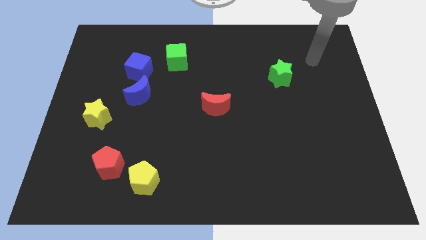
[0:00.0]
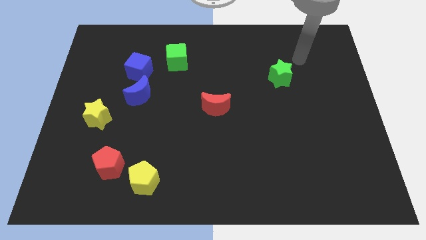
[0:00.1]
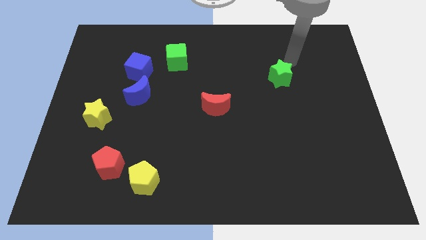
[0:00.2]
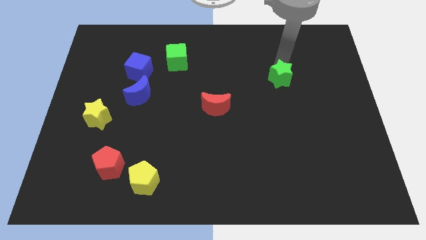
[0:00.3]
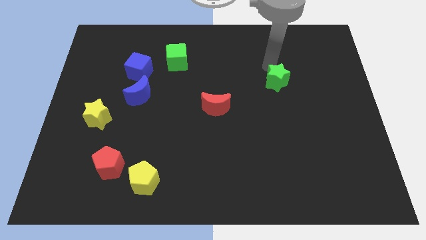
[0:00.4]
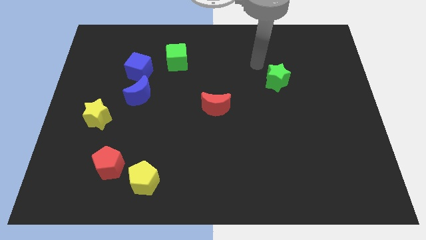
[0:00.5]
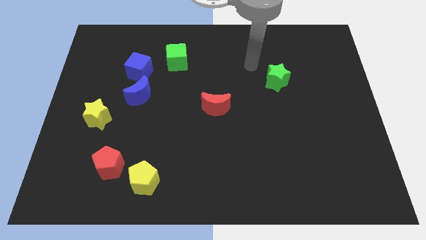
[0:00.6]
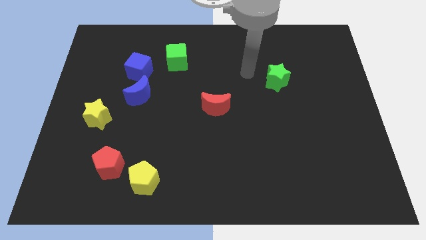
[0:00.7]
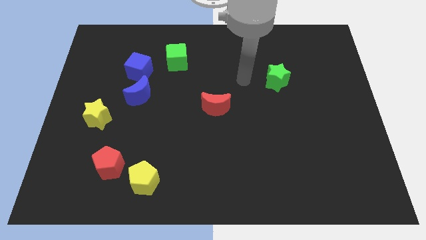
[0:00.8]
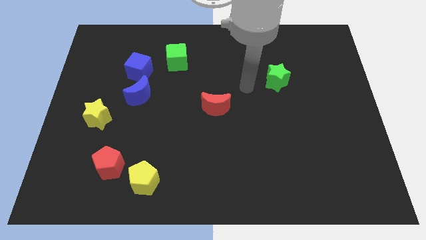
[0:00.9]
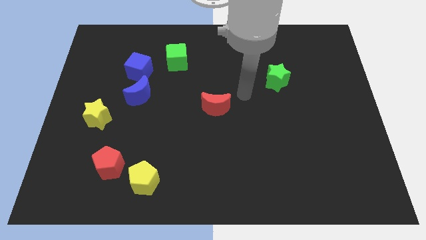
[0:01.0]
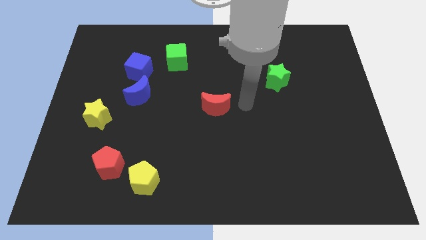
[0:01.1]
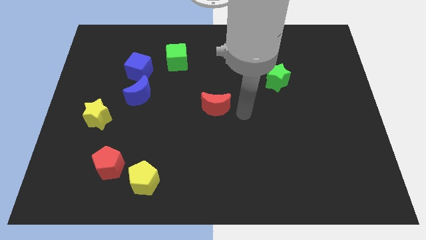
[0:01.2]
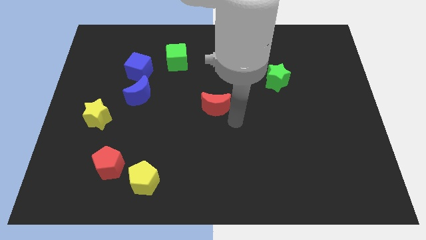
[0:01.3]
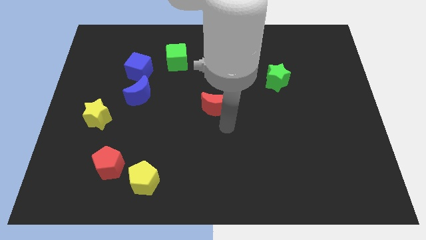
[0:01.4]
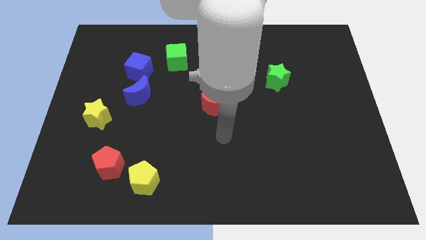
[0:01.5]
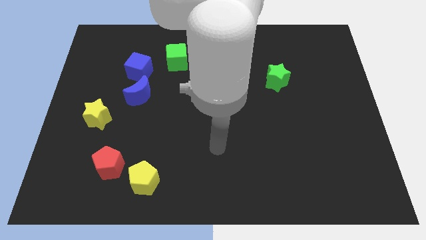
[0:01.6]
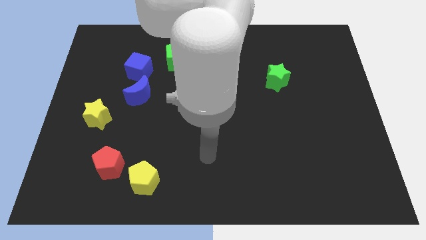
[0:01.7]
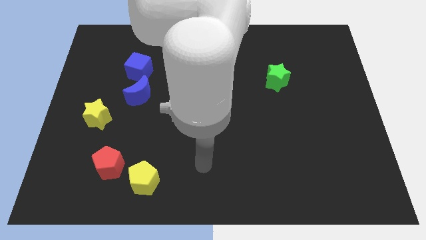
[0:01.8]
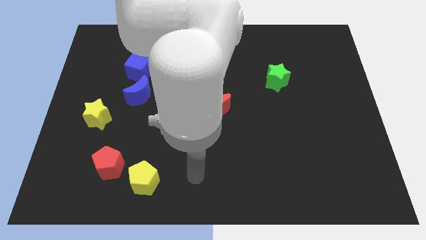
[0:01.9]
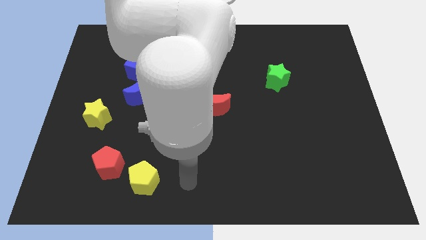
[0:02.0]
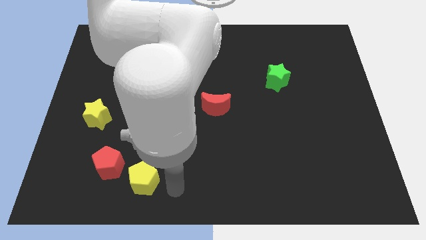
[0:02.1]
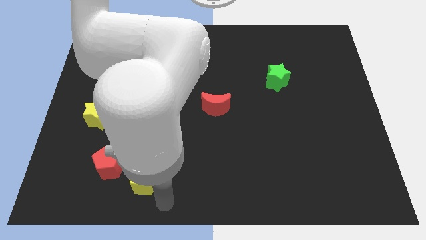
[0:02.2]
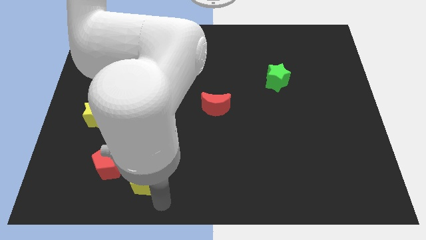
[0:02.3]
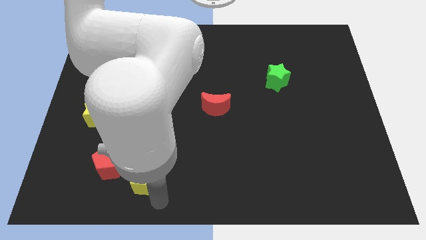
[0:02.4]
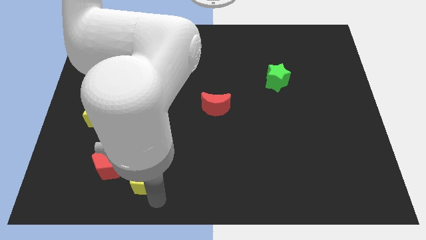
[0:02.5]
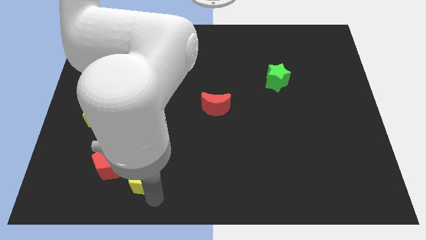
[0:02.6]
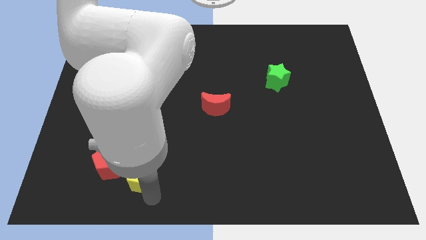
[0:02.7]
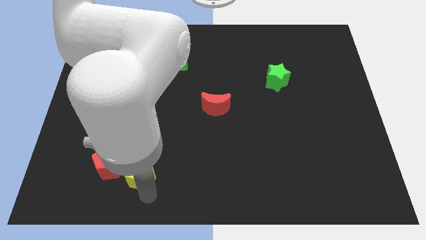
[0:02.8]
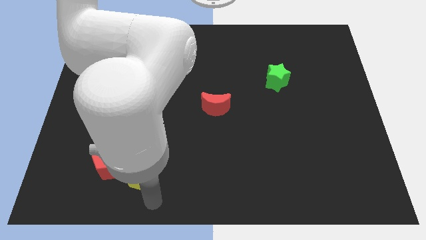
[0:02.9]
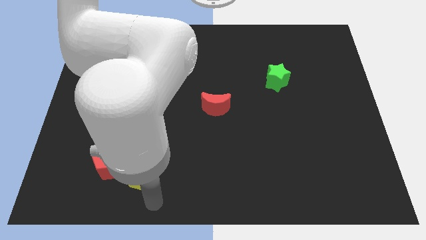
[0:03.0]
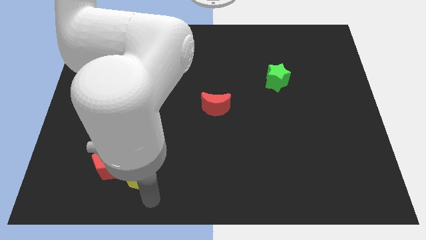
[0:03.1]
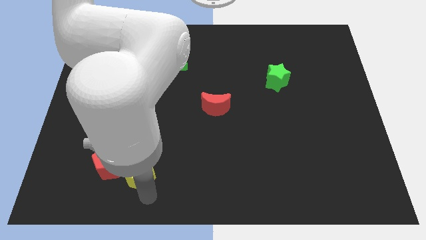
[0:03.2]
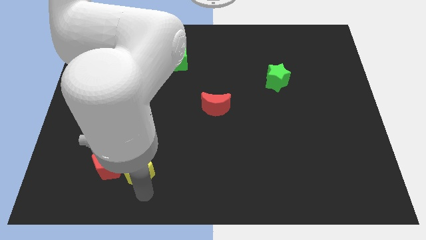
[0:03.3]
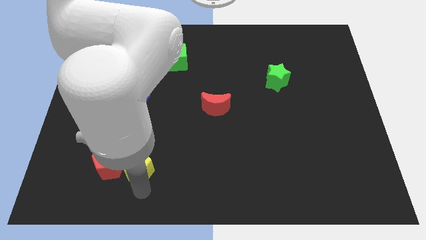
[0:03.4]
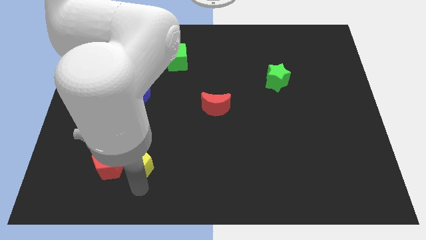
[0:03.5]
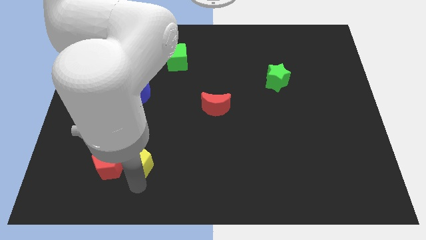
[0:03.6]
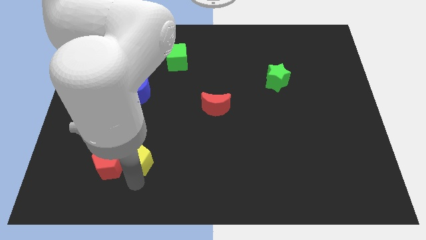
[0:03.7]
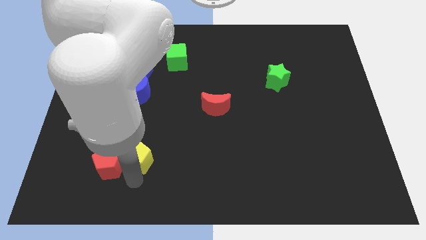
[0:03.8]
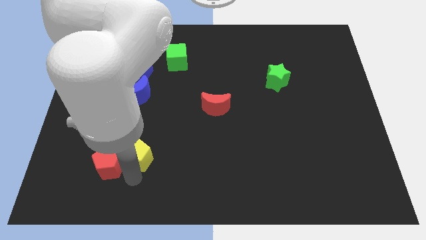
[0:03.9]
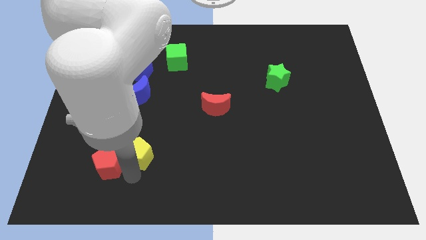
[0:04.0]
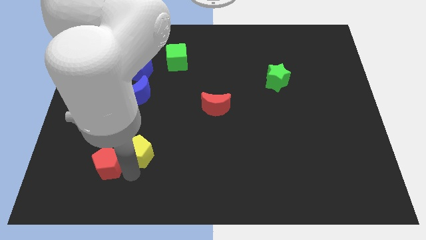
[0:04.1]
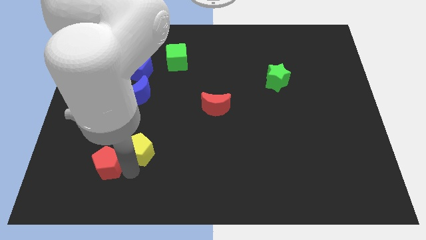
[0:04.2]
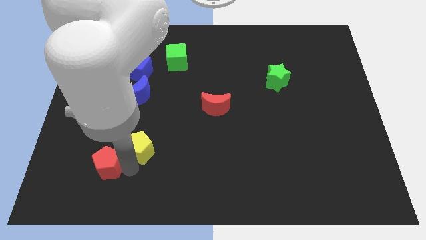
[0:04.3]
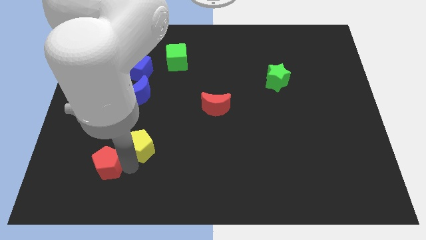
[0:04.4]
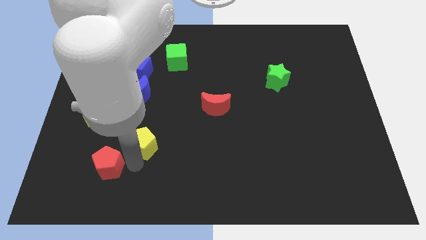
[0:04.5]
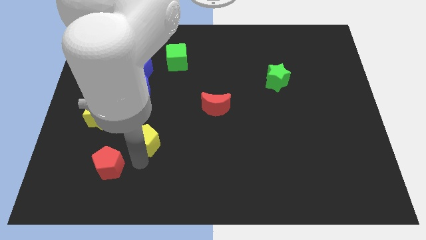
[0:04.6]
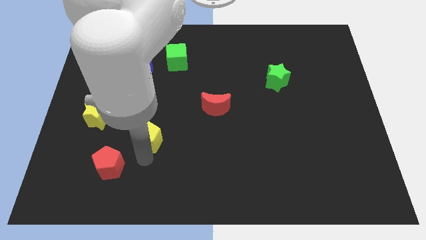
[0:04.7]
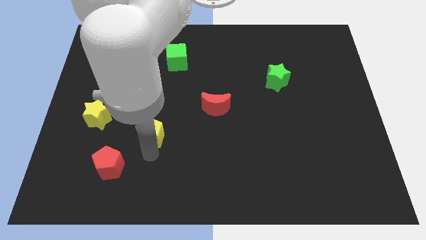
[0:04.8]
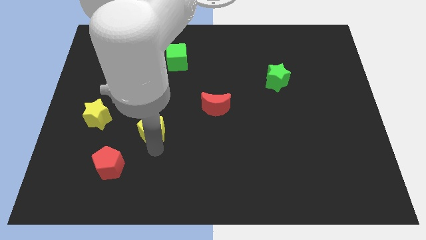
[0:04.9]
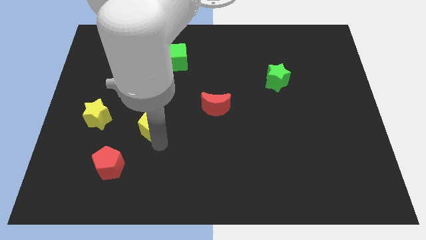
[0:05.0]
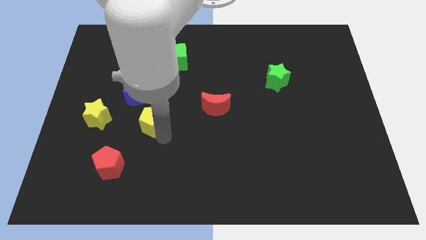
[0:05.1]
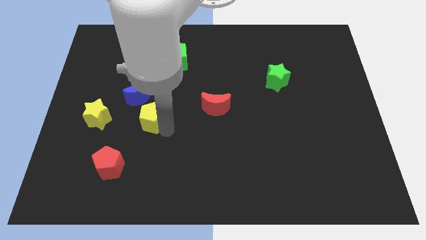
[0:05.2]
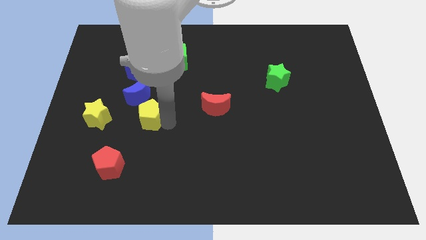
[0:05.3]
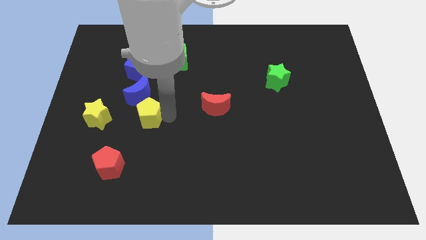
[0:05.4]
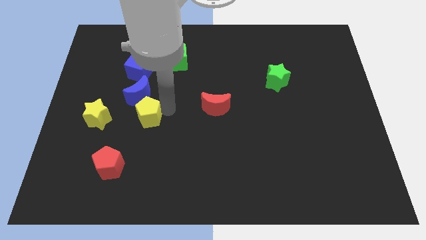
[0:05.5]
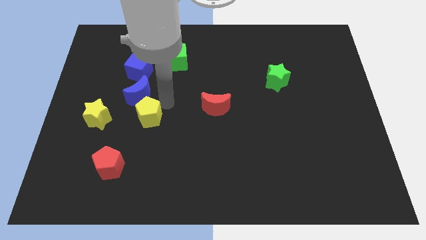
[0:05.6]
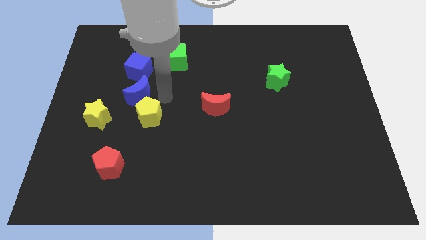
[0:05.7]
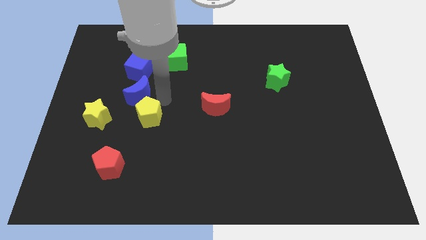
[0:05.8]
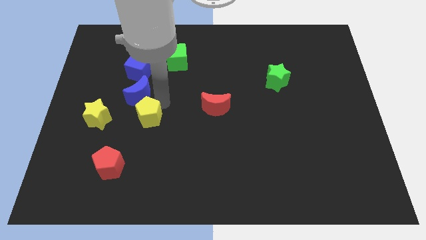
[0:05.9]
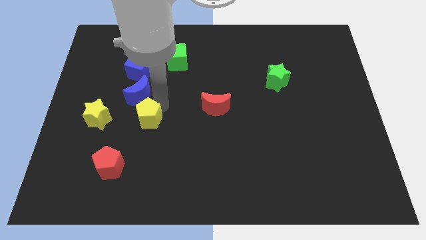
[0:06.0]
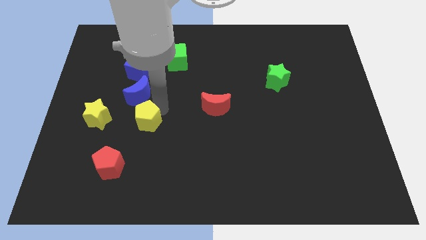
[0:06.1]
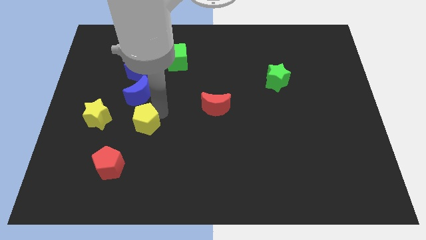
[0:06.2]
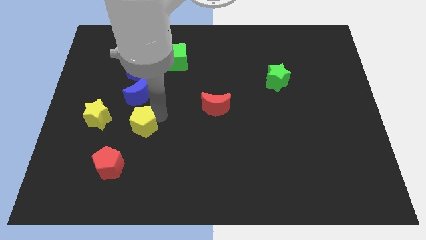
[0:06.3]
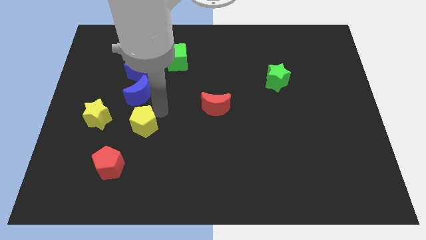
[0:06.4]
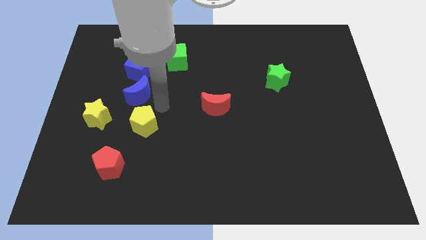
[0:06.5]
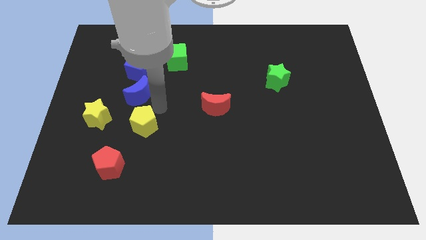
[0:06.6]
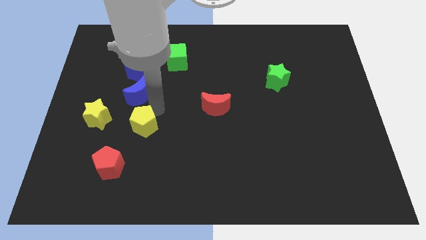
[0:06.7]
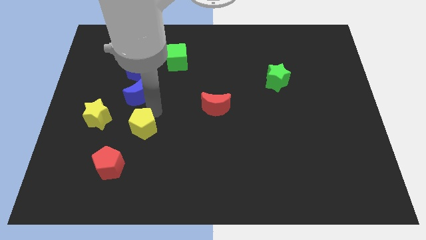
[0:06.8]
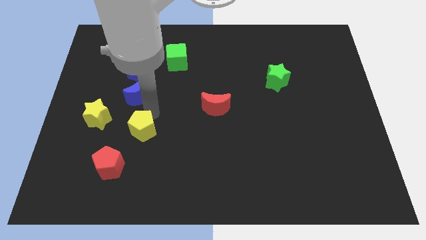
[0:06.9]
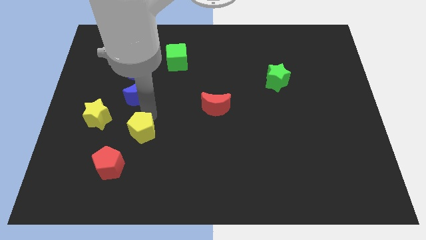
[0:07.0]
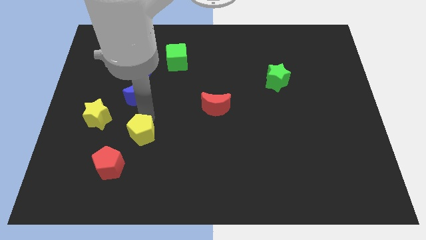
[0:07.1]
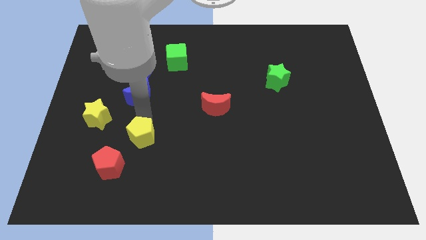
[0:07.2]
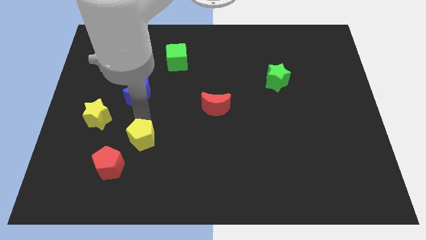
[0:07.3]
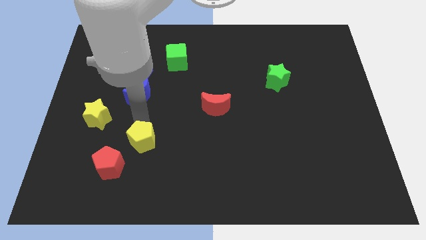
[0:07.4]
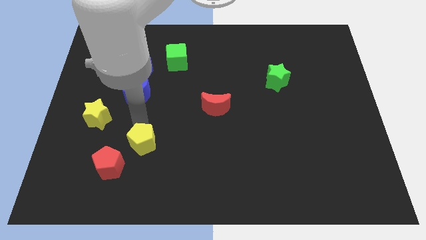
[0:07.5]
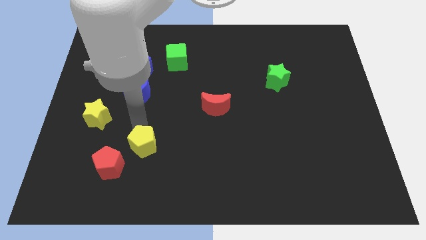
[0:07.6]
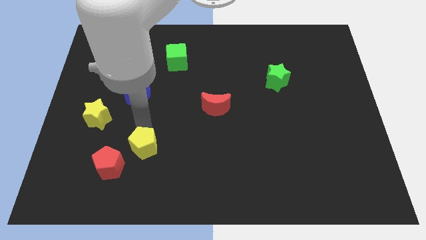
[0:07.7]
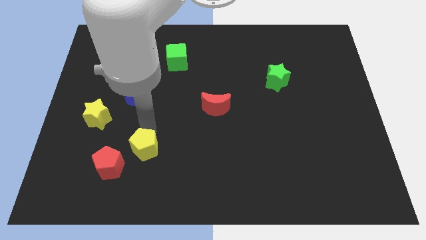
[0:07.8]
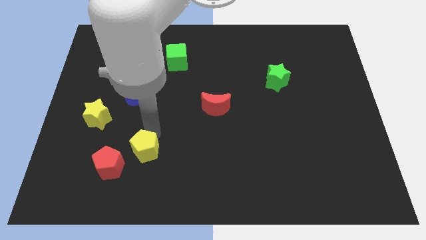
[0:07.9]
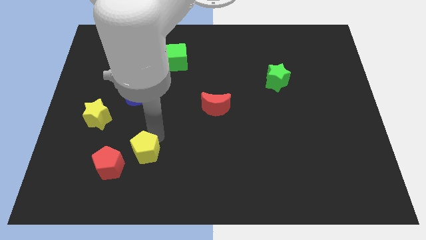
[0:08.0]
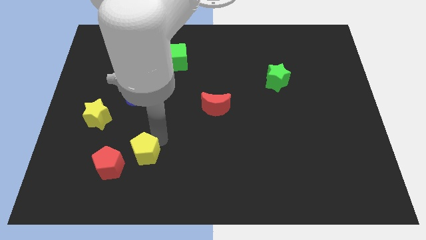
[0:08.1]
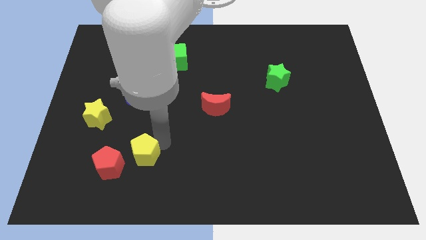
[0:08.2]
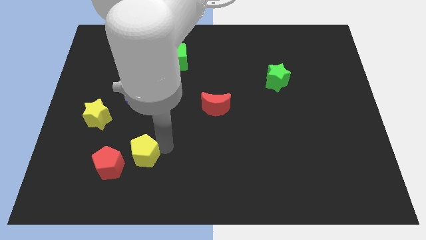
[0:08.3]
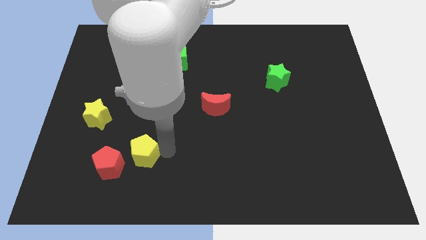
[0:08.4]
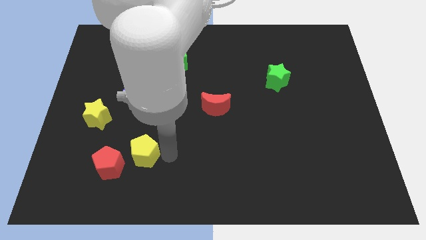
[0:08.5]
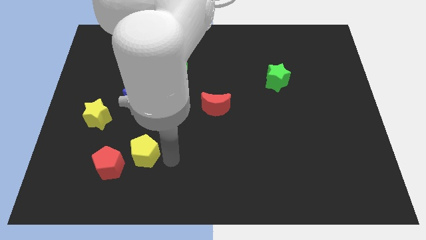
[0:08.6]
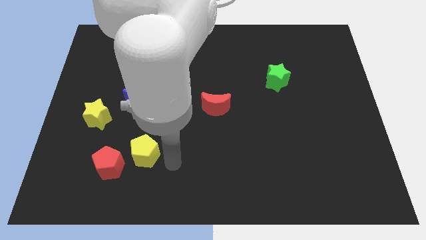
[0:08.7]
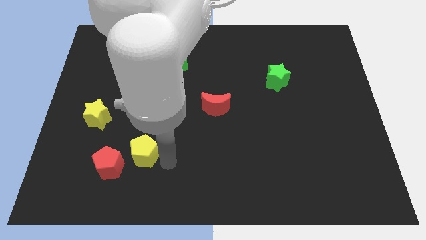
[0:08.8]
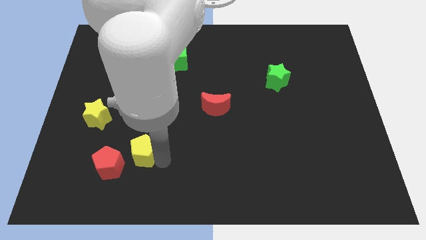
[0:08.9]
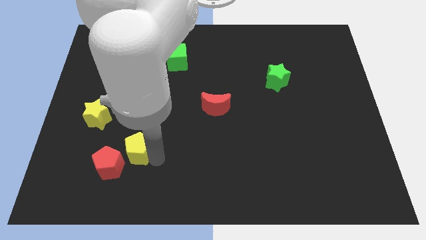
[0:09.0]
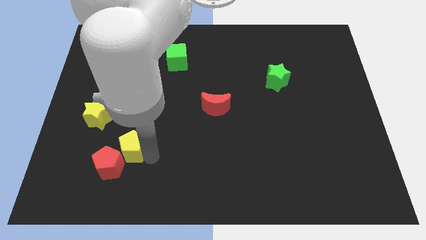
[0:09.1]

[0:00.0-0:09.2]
push the yellow pentagon above the red pentagon
